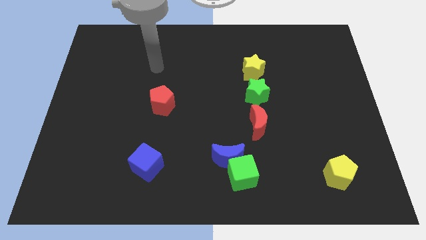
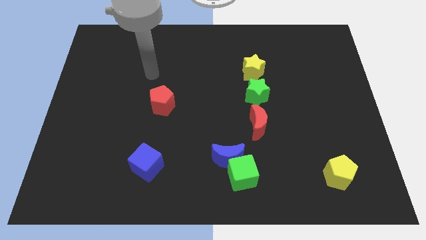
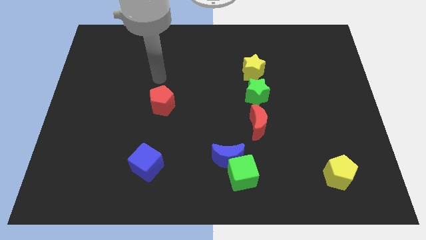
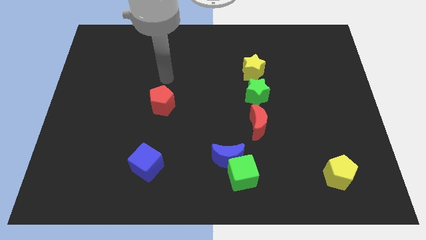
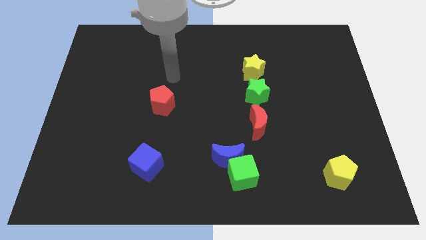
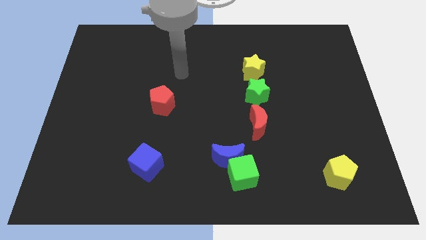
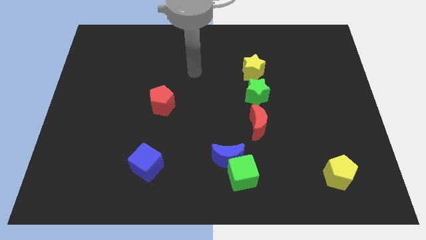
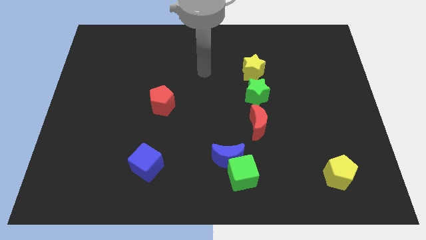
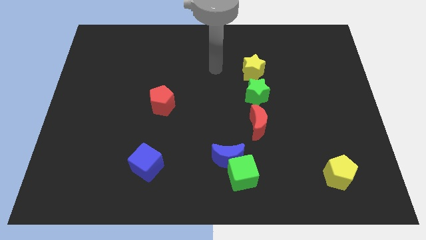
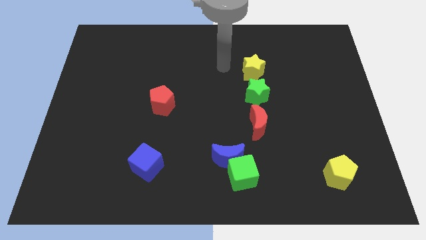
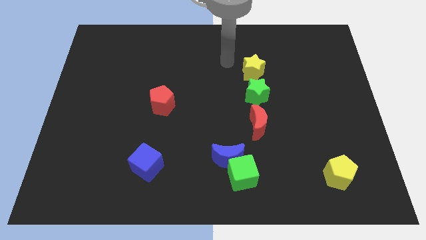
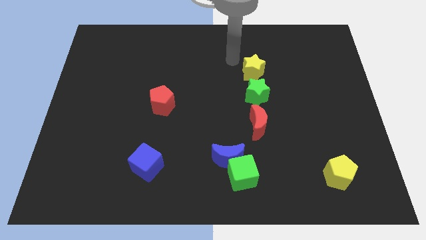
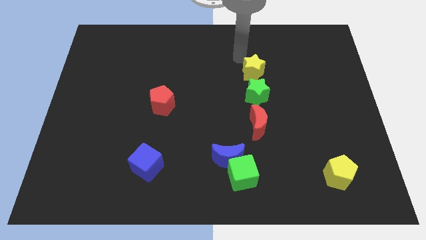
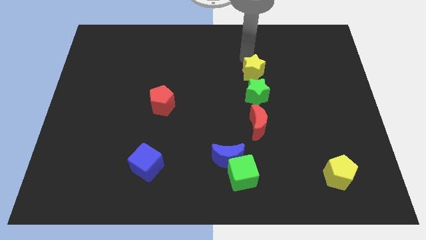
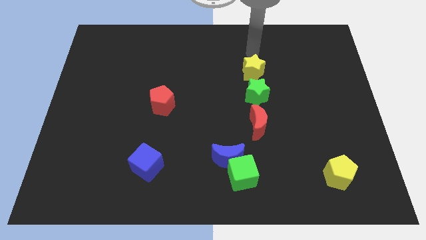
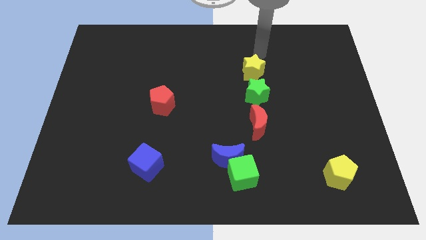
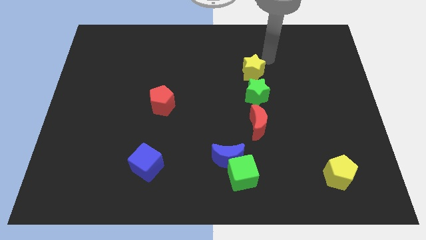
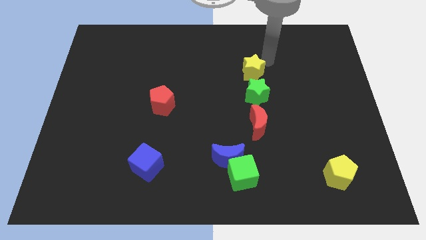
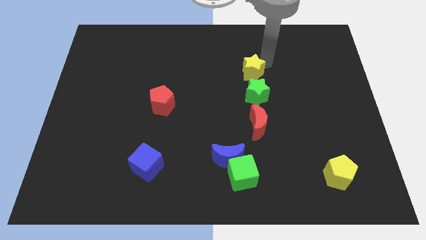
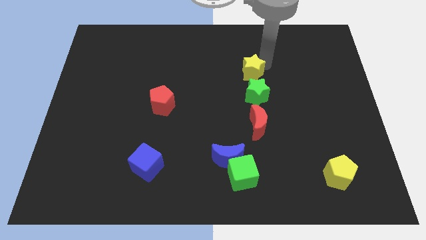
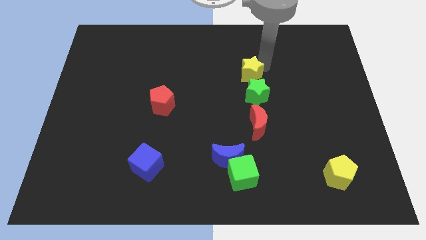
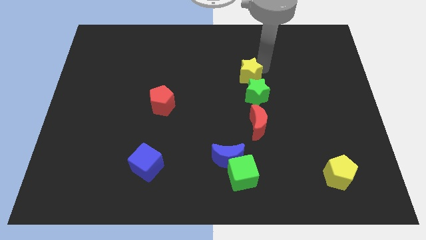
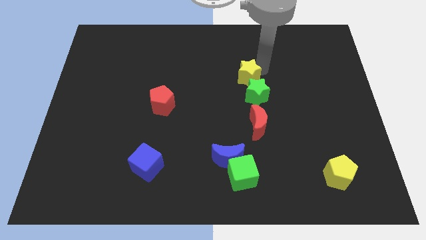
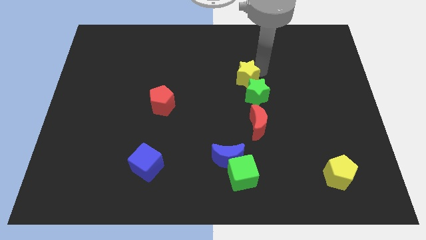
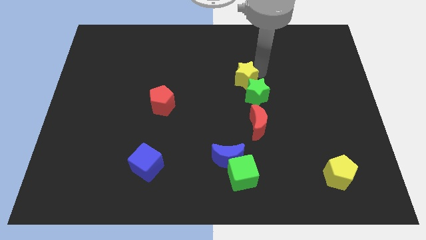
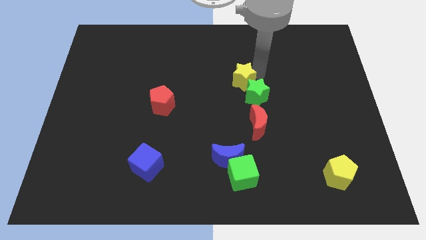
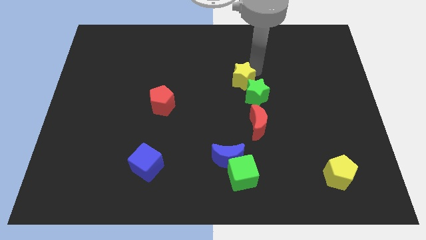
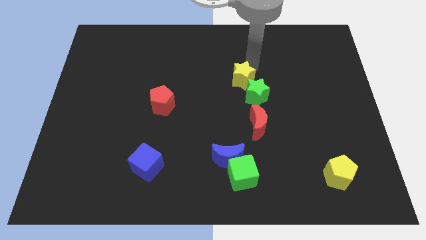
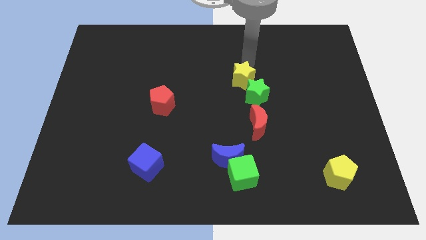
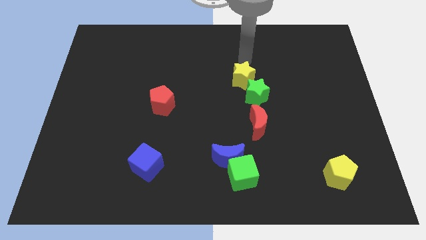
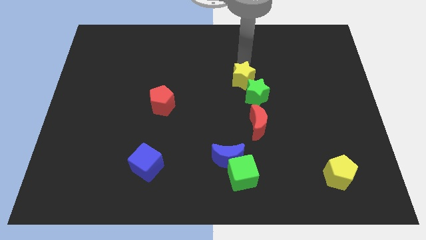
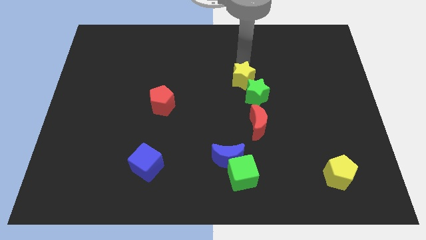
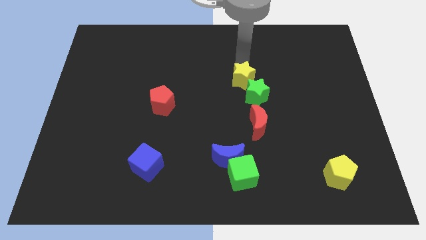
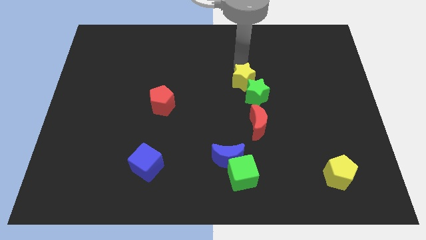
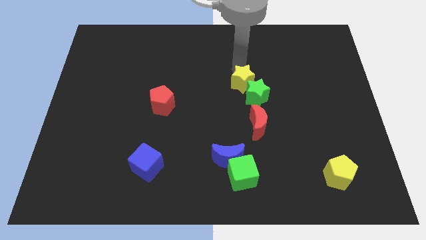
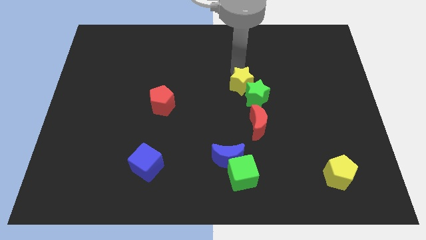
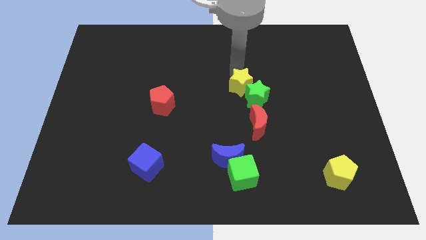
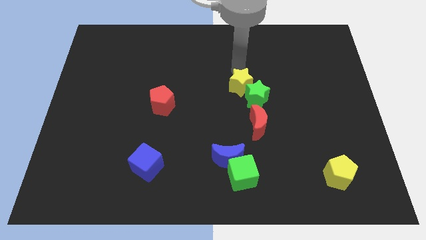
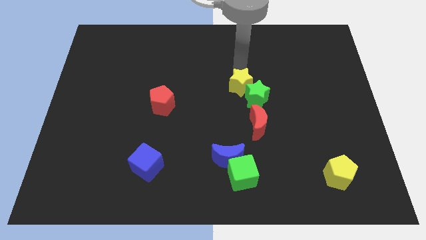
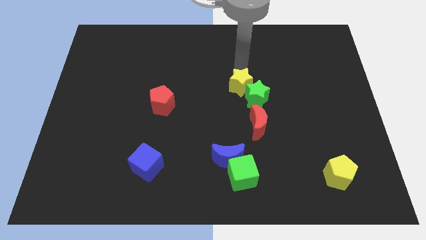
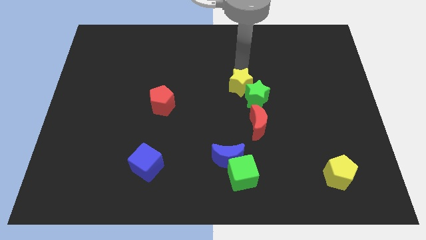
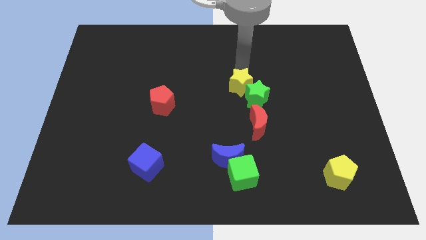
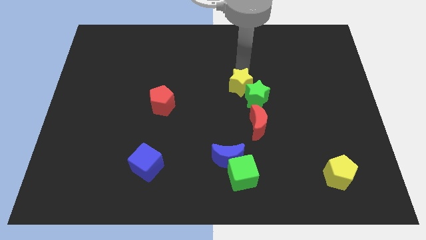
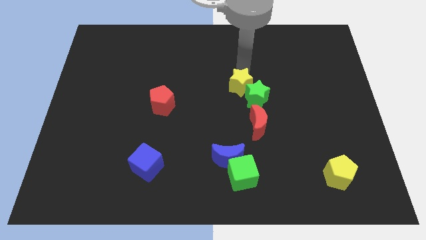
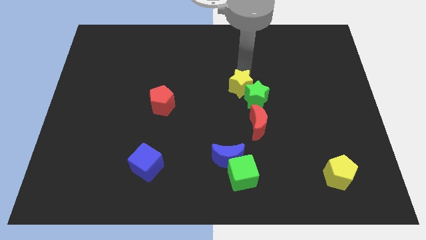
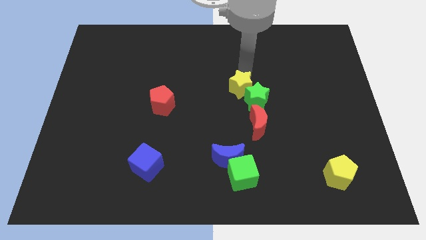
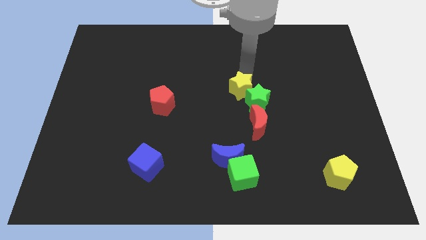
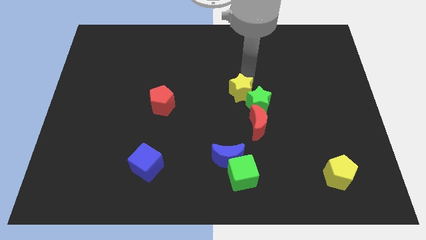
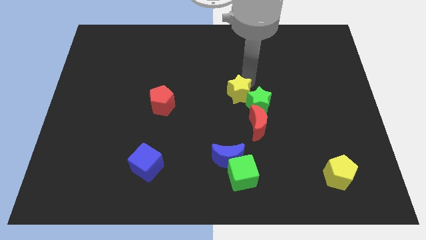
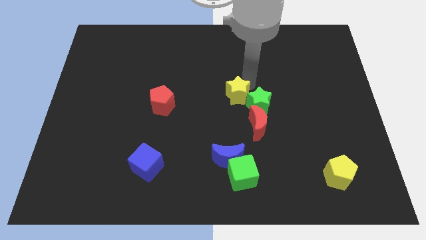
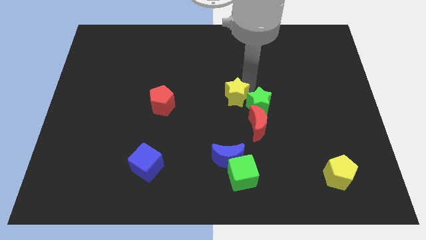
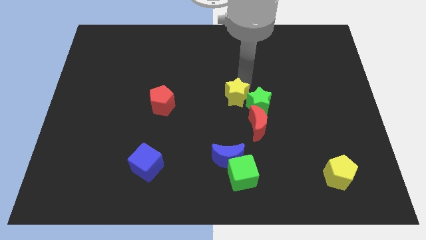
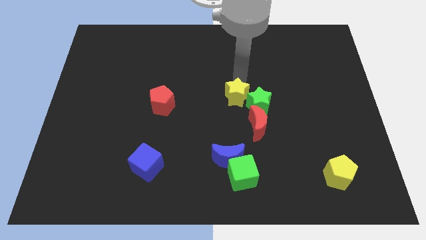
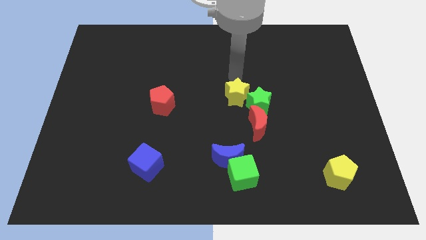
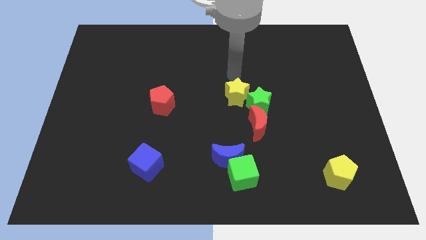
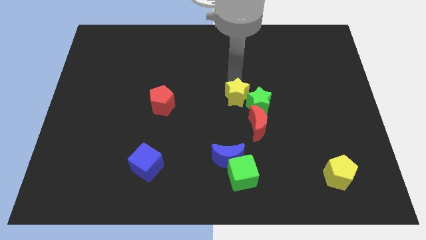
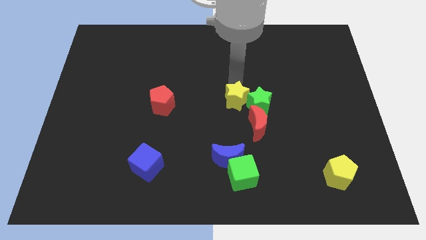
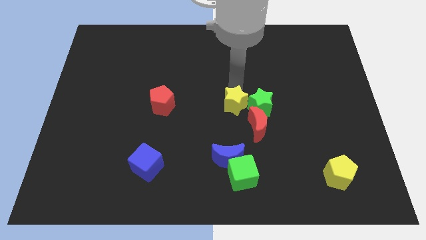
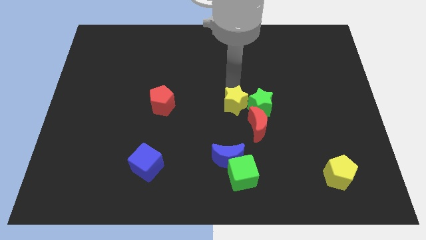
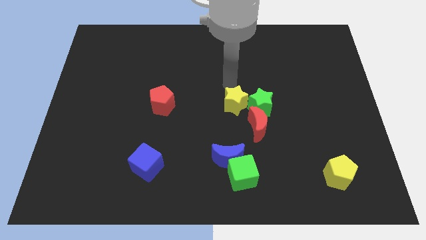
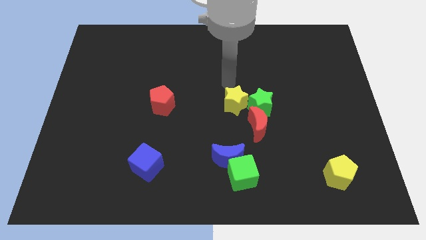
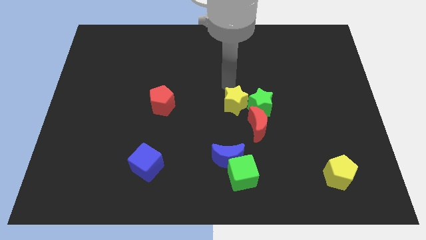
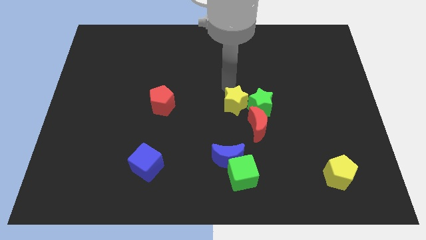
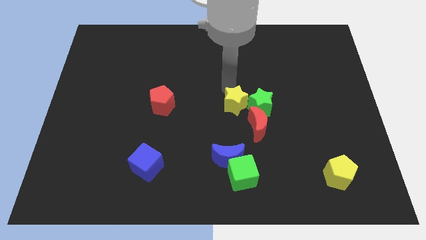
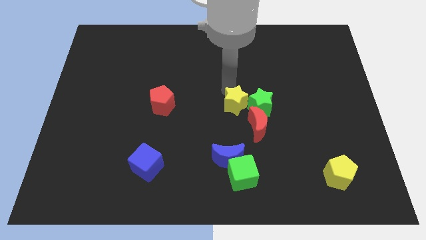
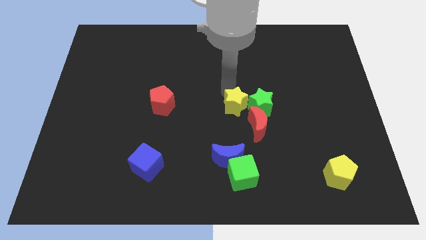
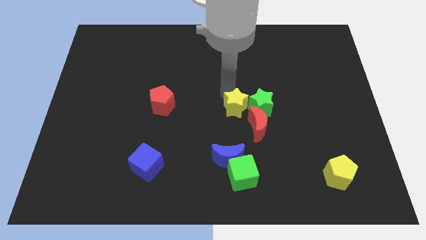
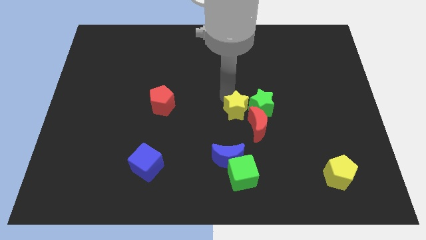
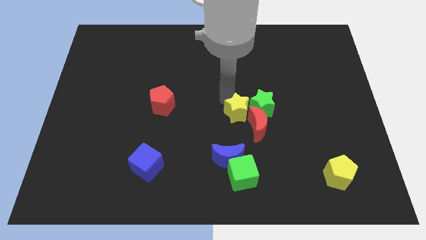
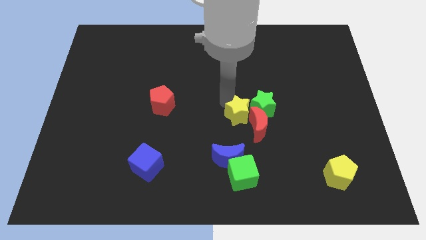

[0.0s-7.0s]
move the yellow star above the green cube
